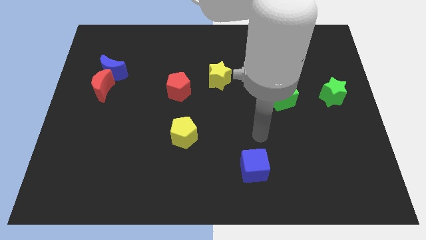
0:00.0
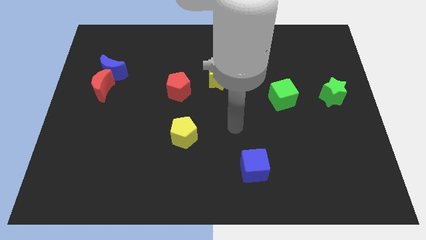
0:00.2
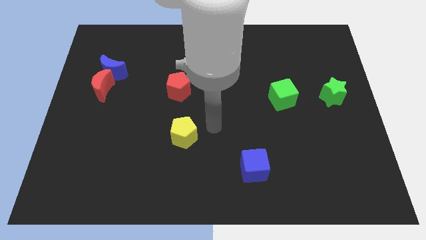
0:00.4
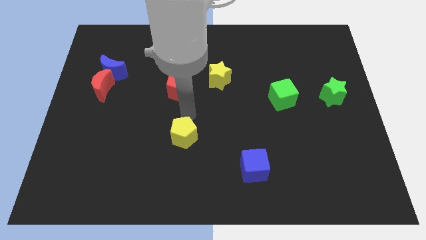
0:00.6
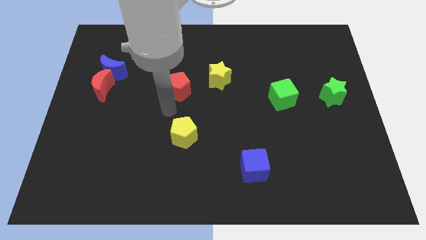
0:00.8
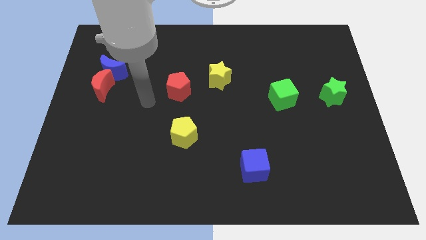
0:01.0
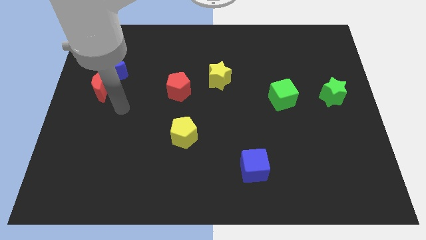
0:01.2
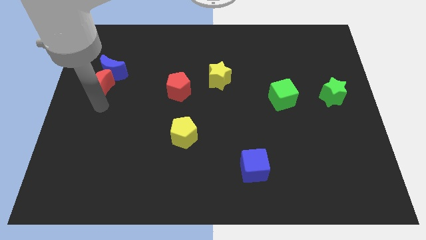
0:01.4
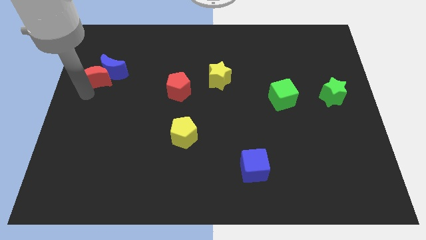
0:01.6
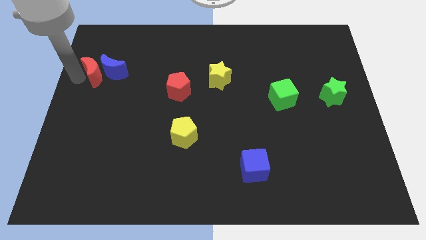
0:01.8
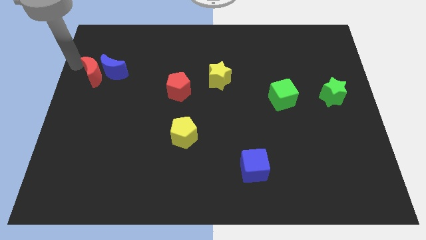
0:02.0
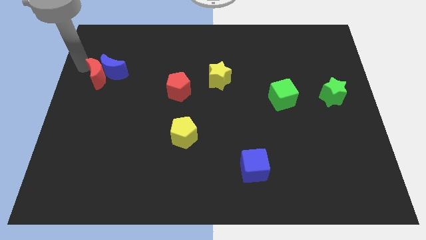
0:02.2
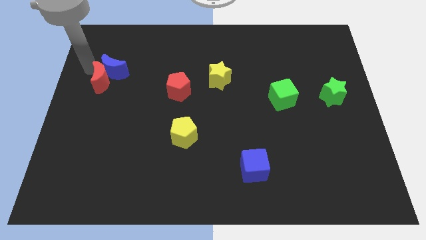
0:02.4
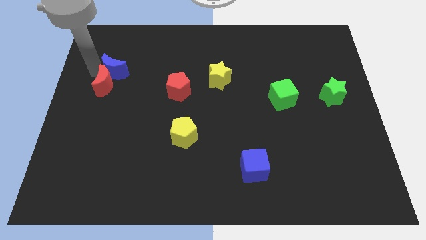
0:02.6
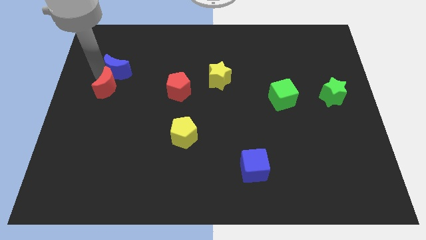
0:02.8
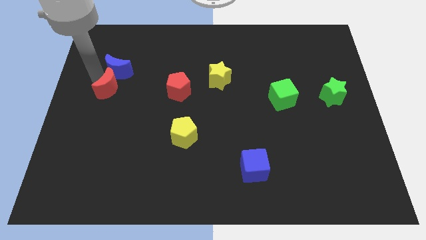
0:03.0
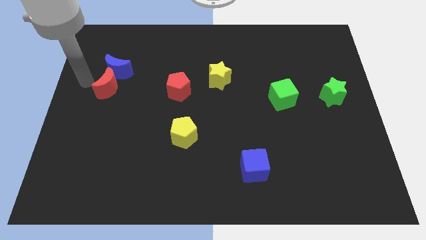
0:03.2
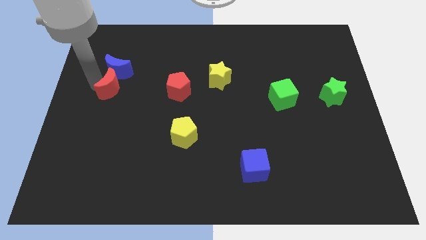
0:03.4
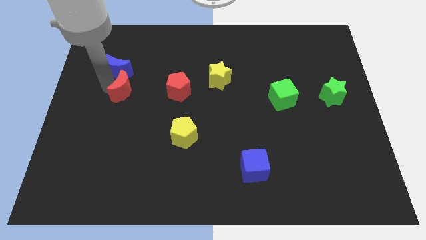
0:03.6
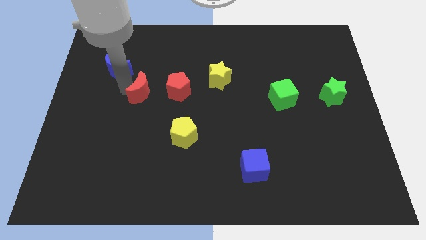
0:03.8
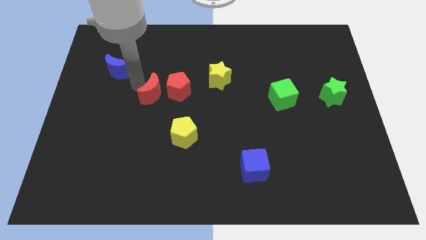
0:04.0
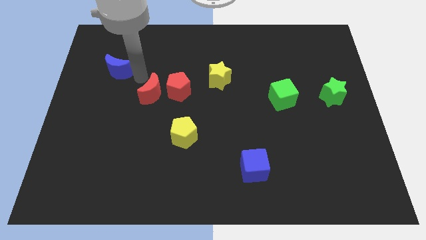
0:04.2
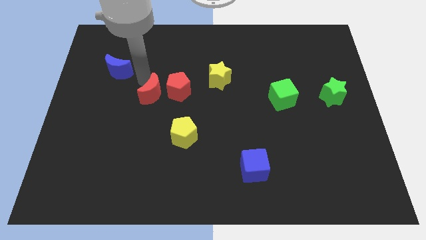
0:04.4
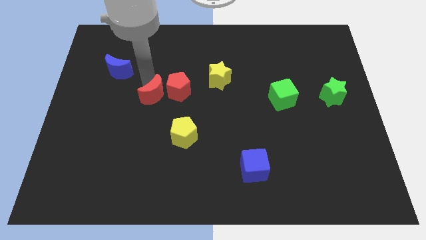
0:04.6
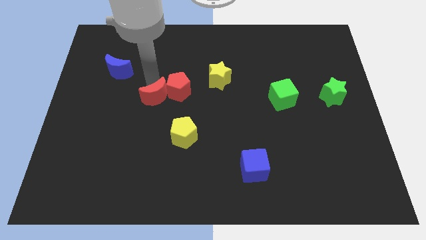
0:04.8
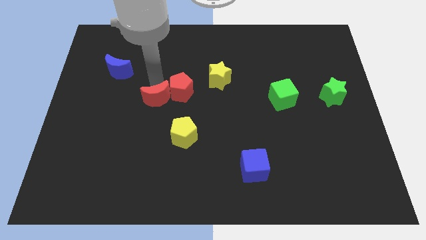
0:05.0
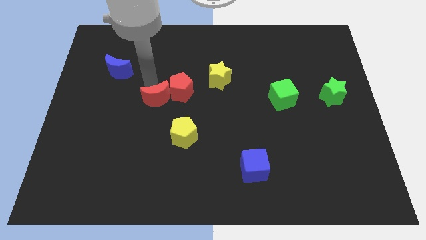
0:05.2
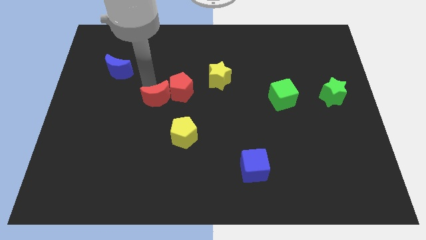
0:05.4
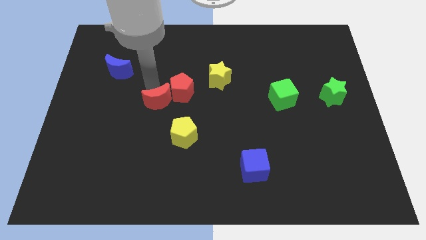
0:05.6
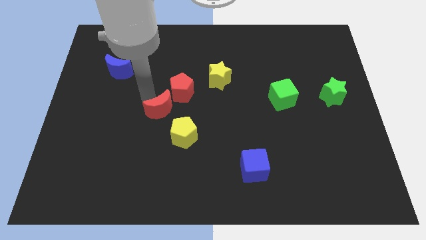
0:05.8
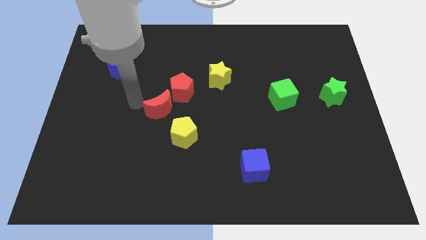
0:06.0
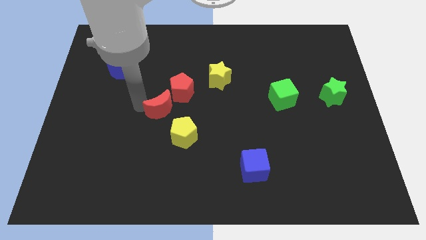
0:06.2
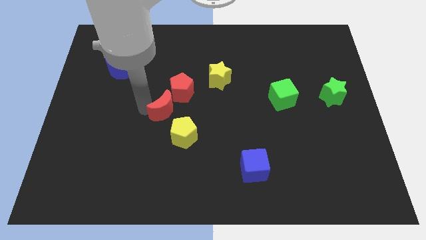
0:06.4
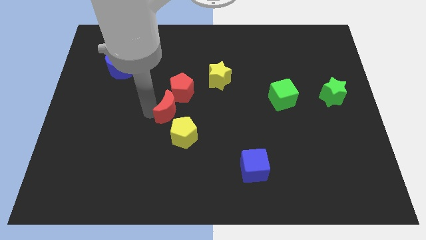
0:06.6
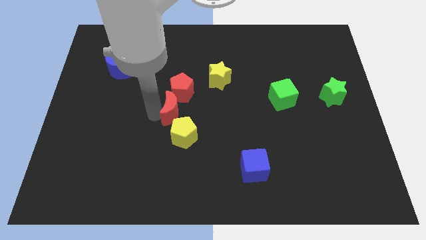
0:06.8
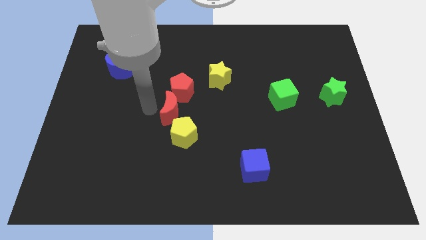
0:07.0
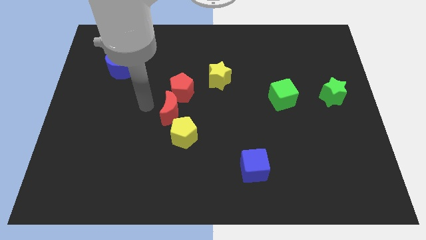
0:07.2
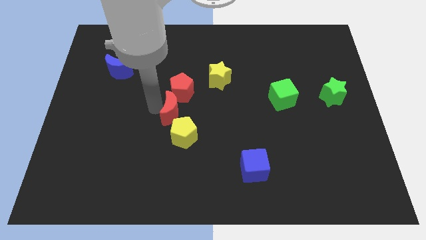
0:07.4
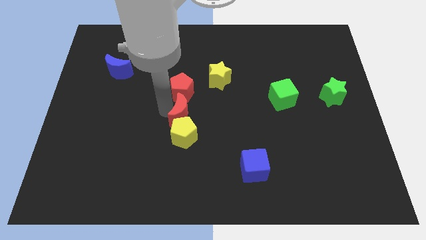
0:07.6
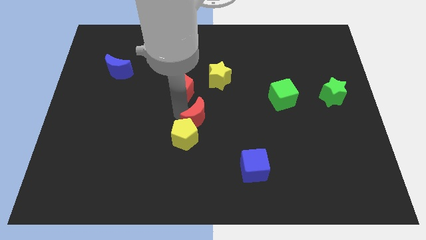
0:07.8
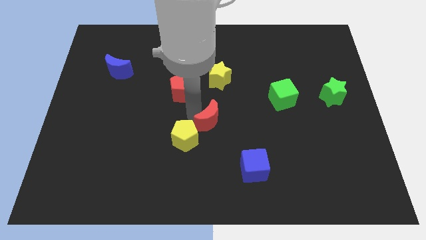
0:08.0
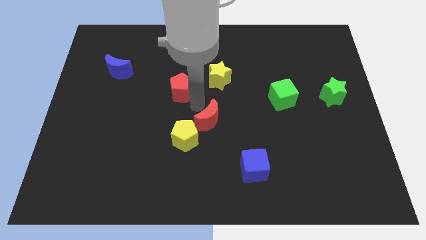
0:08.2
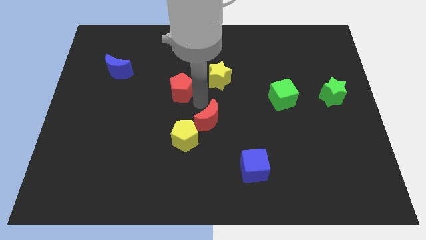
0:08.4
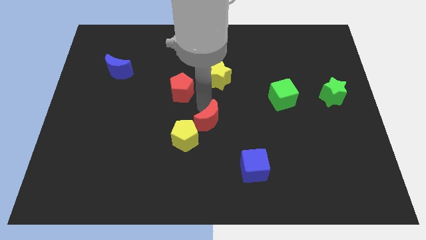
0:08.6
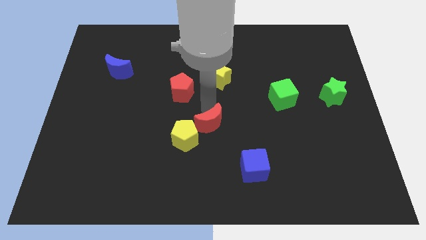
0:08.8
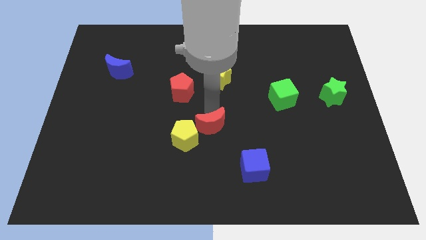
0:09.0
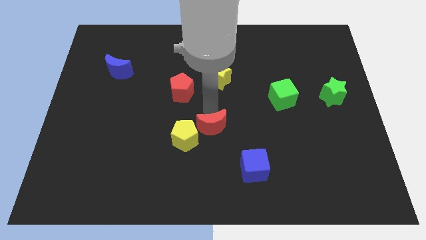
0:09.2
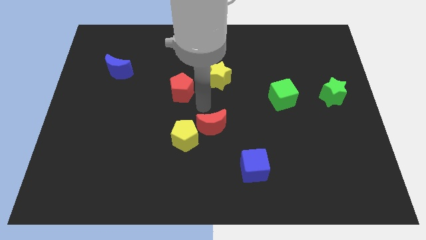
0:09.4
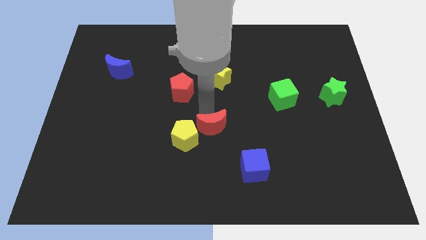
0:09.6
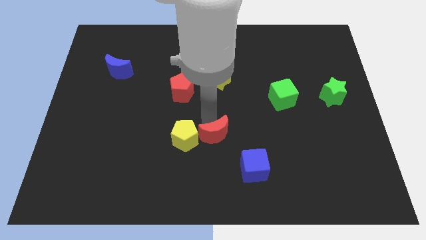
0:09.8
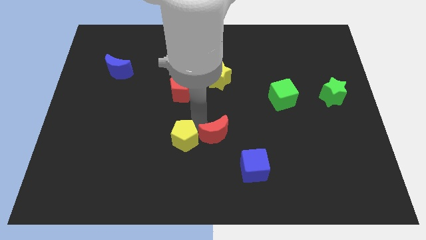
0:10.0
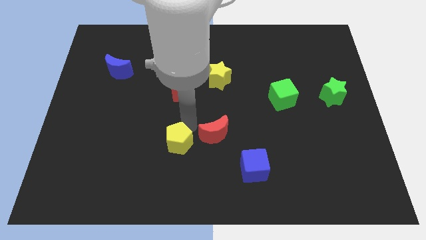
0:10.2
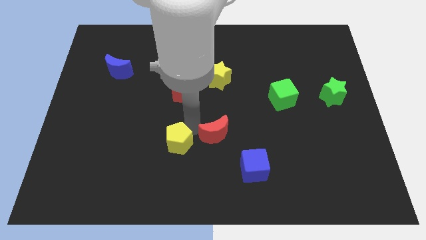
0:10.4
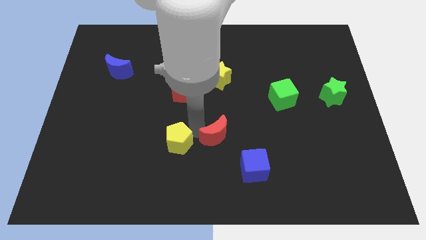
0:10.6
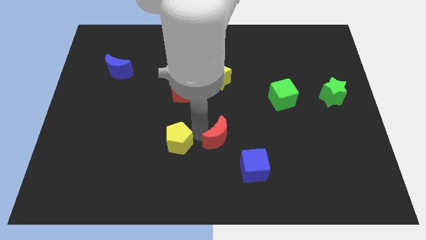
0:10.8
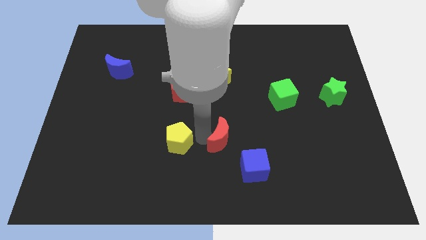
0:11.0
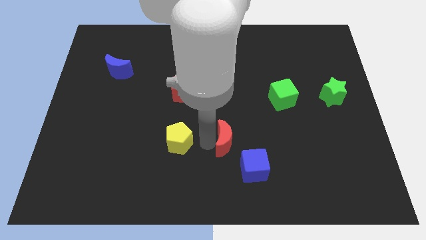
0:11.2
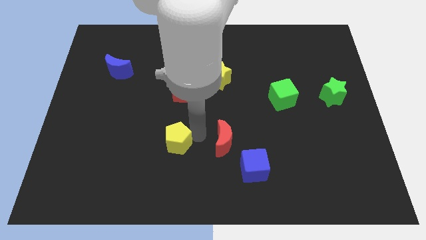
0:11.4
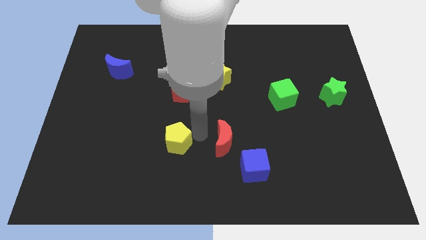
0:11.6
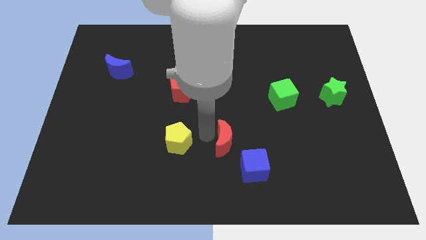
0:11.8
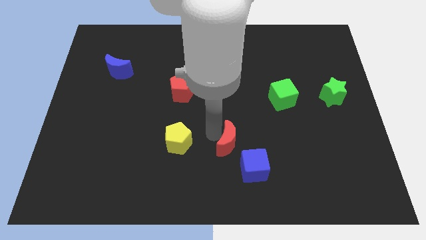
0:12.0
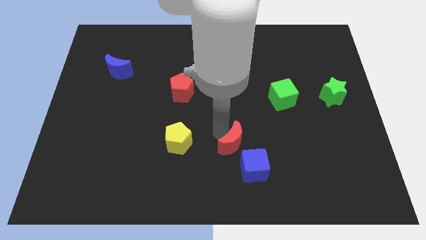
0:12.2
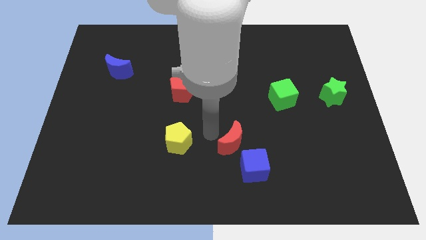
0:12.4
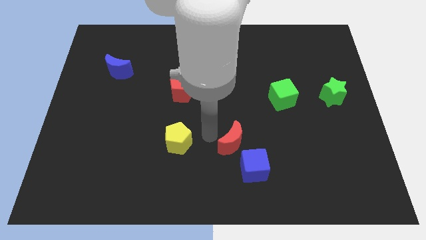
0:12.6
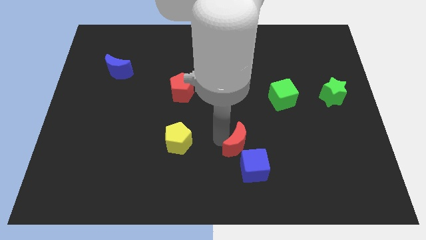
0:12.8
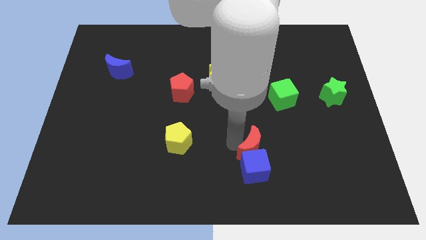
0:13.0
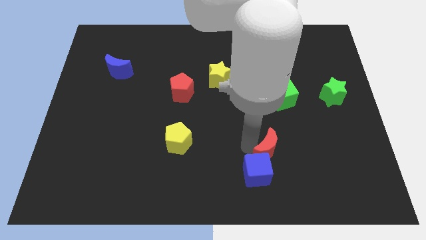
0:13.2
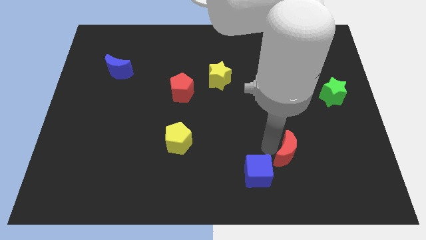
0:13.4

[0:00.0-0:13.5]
push the red moon right of the blue cube

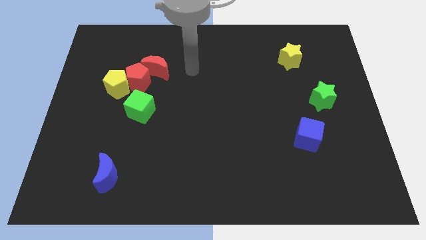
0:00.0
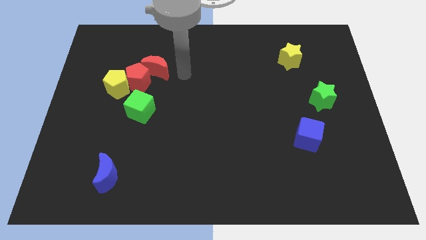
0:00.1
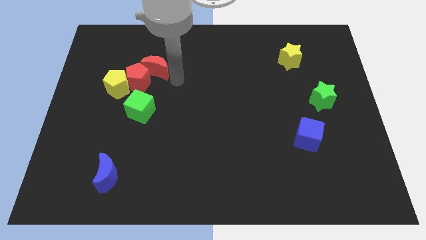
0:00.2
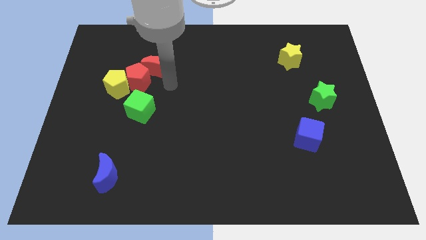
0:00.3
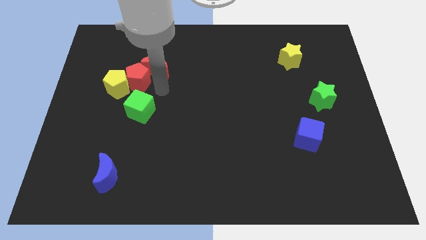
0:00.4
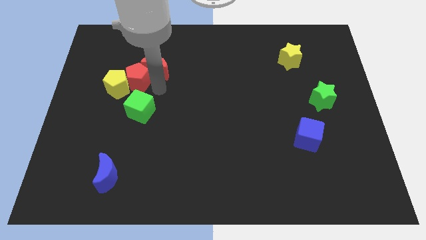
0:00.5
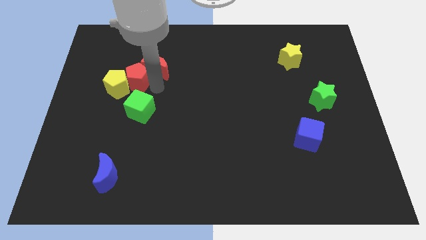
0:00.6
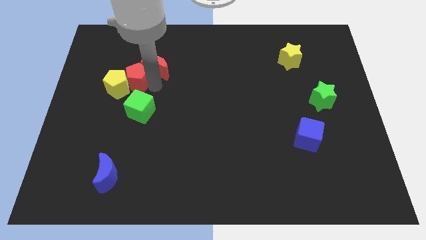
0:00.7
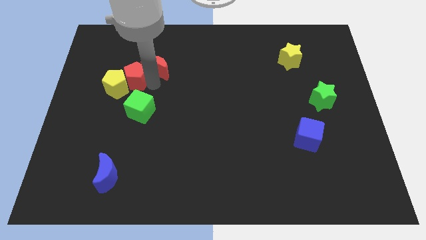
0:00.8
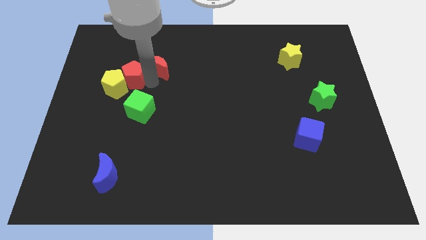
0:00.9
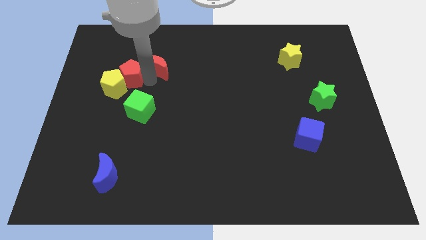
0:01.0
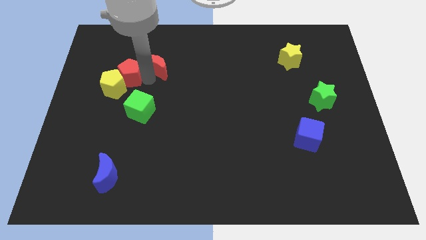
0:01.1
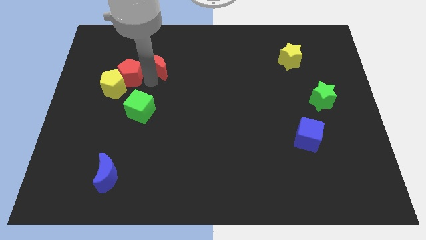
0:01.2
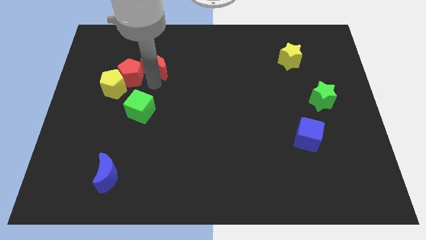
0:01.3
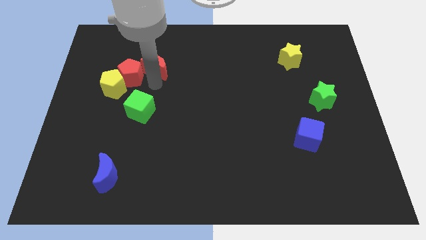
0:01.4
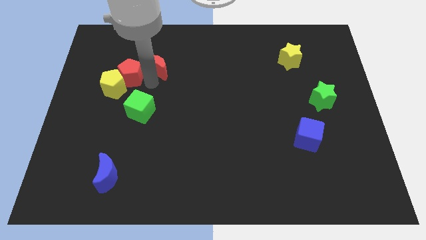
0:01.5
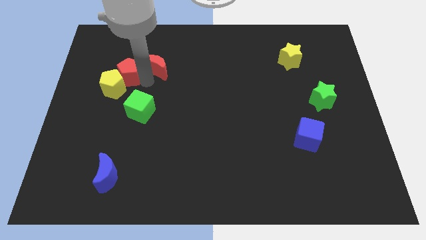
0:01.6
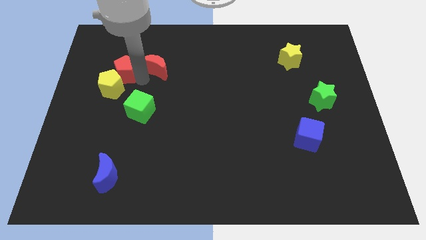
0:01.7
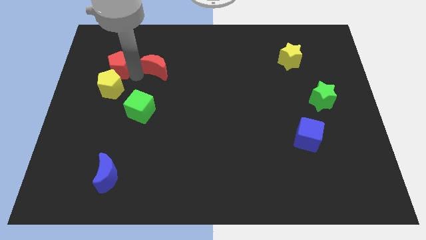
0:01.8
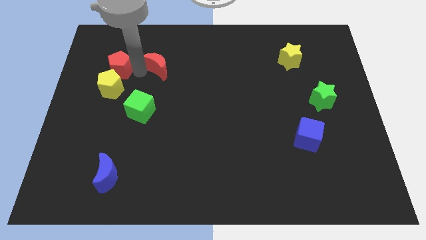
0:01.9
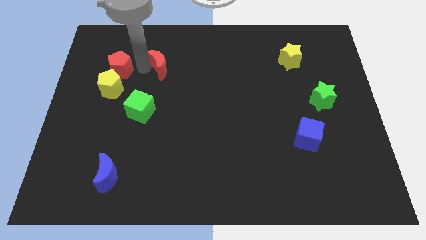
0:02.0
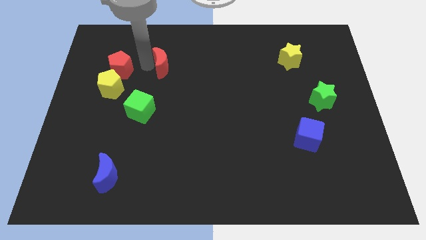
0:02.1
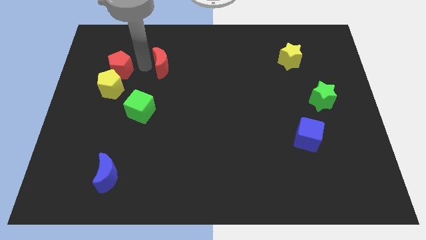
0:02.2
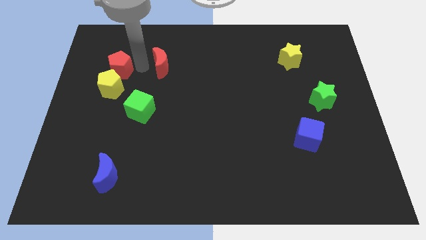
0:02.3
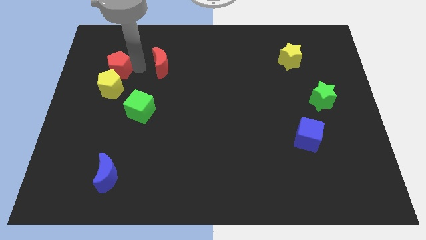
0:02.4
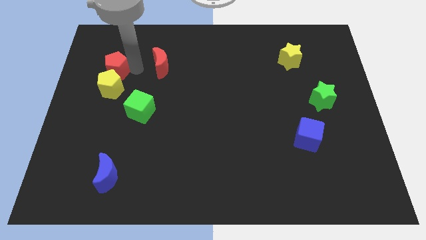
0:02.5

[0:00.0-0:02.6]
slide the red pentagon to the top left side of the yellow pentagon
